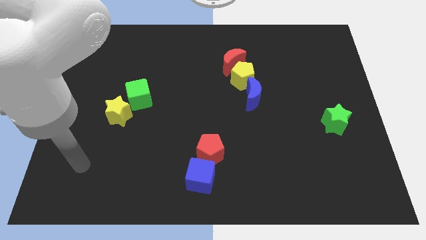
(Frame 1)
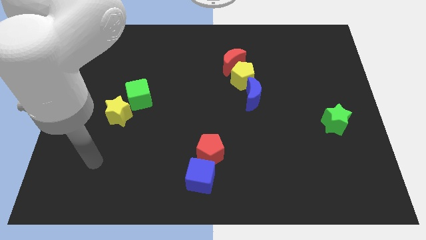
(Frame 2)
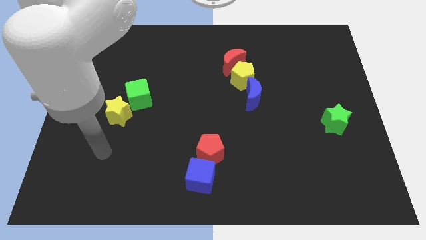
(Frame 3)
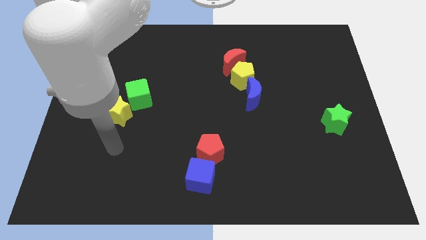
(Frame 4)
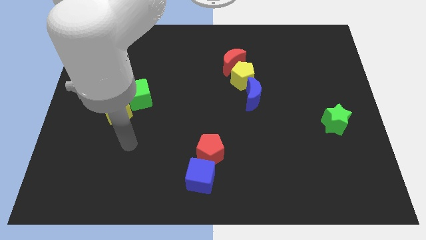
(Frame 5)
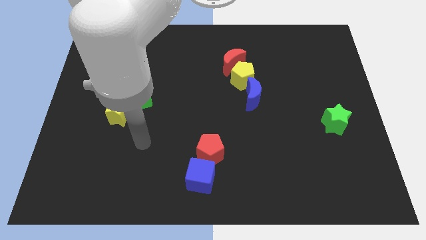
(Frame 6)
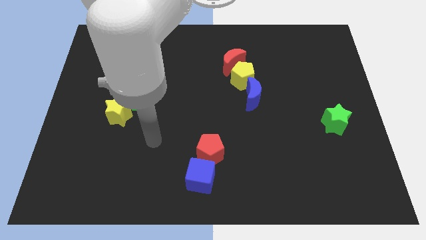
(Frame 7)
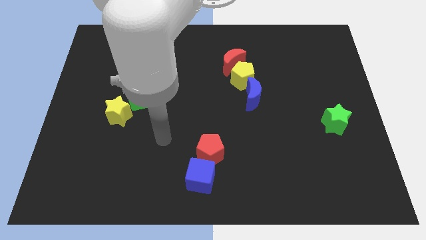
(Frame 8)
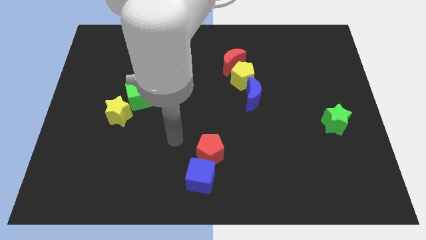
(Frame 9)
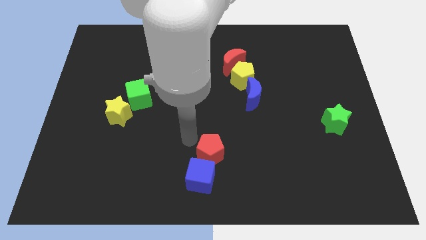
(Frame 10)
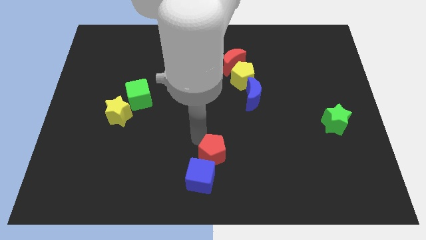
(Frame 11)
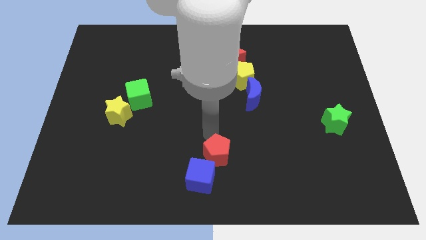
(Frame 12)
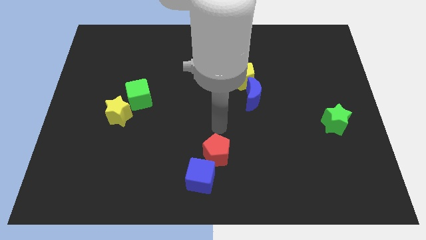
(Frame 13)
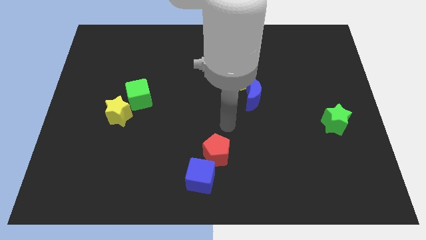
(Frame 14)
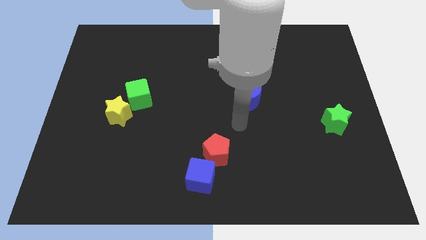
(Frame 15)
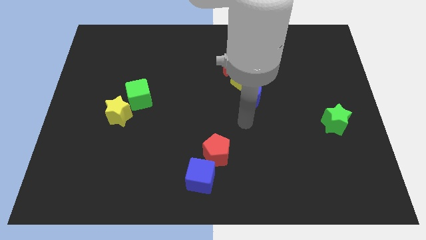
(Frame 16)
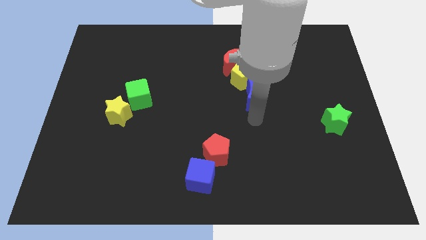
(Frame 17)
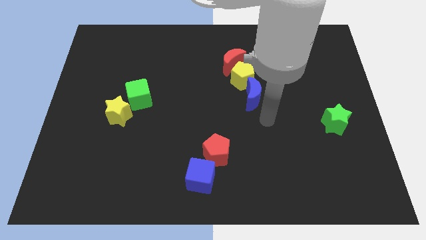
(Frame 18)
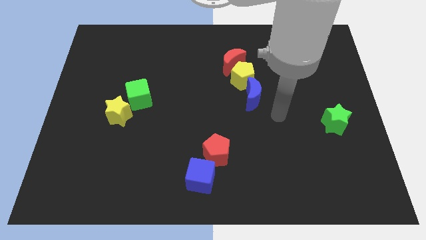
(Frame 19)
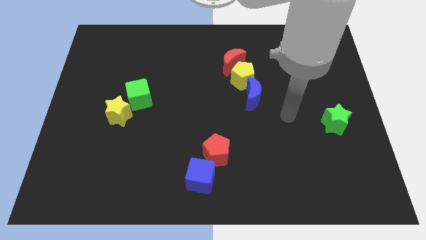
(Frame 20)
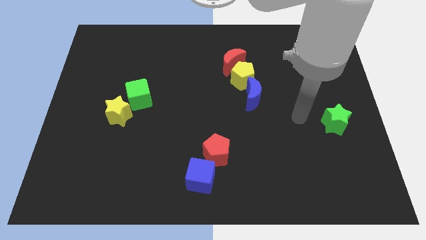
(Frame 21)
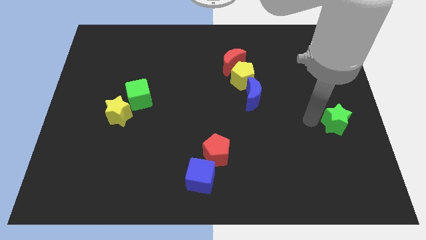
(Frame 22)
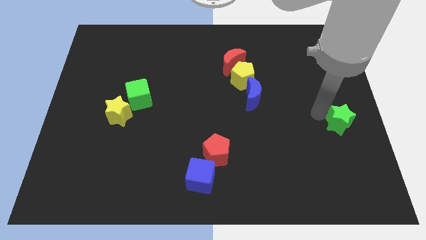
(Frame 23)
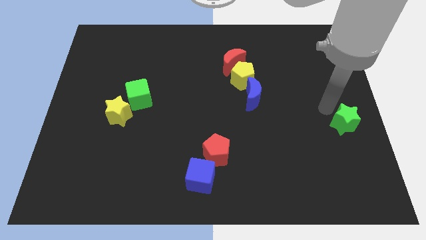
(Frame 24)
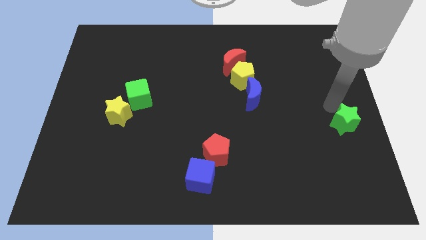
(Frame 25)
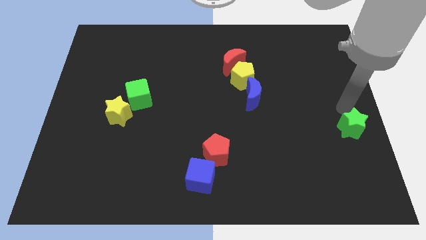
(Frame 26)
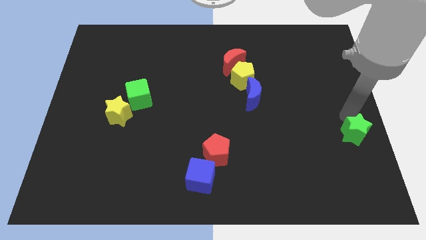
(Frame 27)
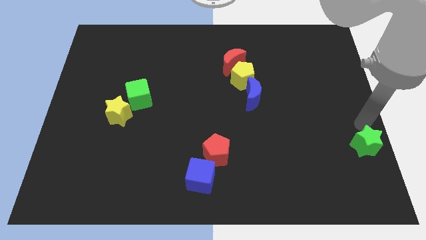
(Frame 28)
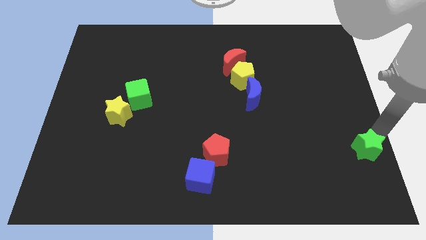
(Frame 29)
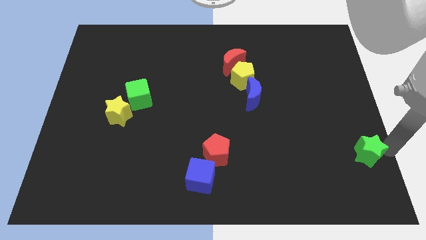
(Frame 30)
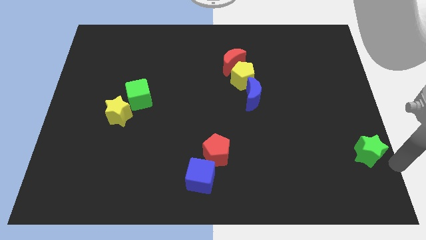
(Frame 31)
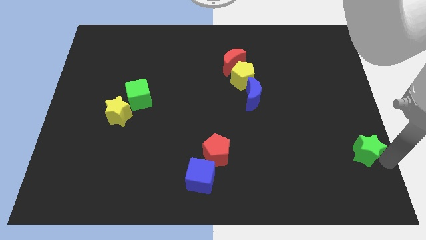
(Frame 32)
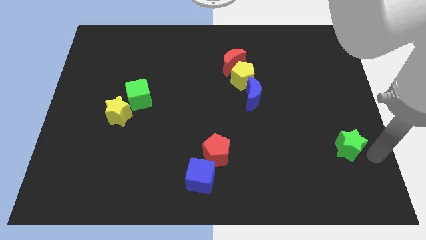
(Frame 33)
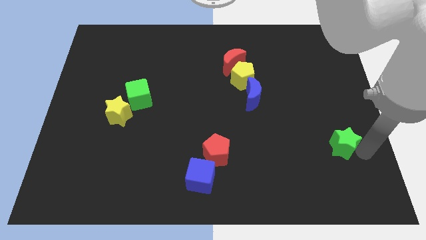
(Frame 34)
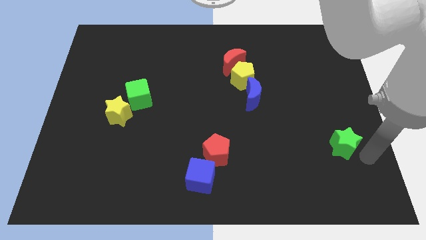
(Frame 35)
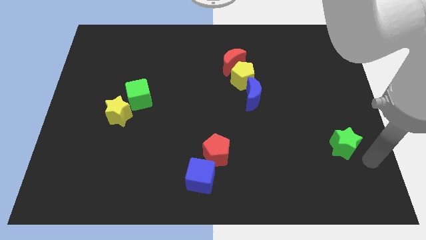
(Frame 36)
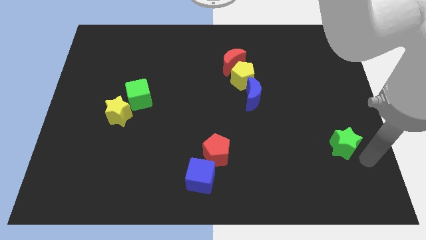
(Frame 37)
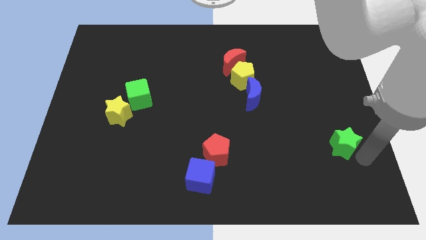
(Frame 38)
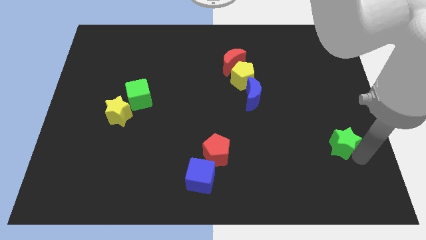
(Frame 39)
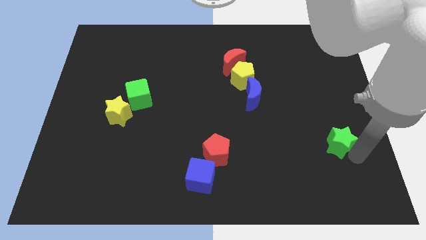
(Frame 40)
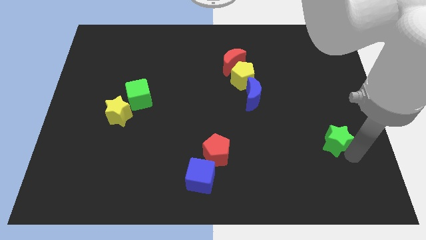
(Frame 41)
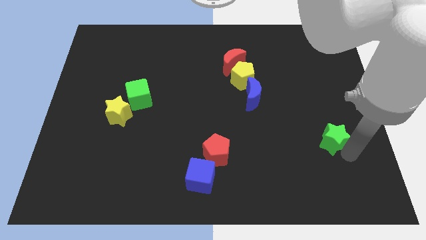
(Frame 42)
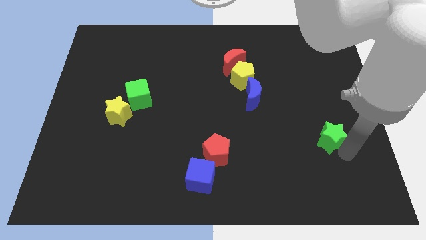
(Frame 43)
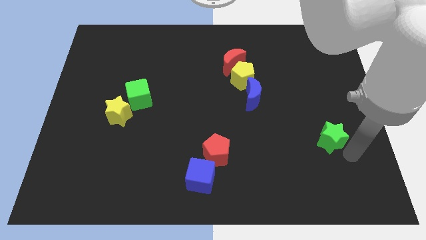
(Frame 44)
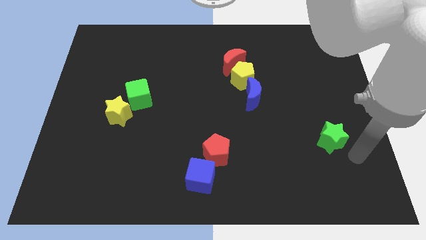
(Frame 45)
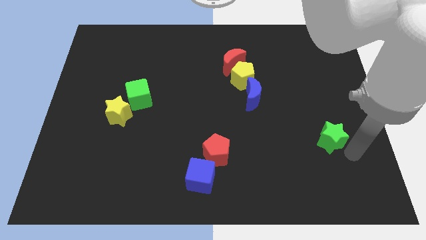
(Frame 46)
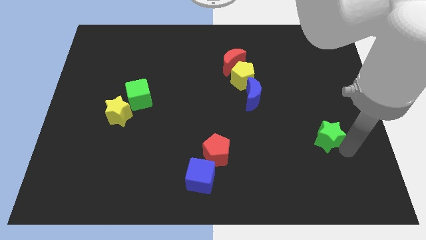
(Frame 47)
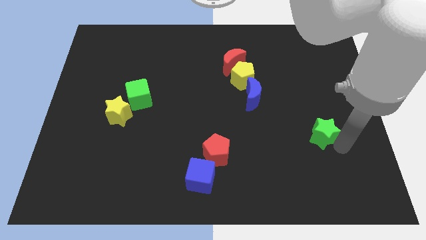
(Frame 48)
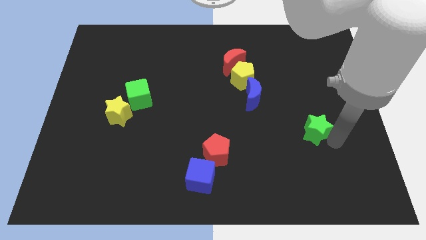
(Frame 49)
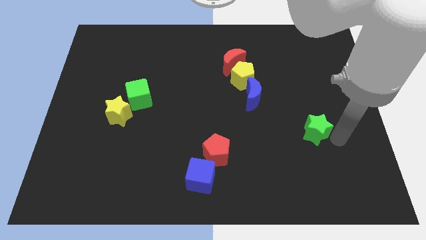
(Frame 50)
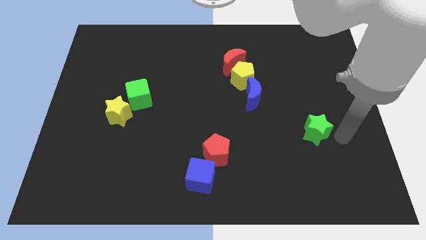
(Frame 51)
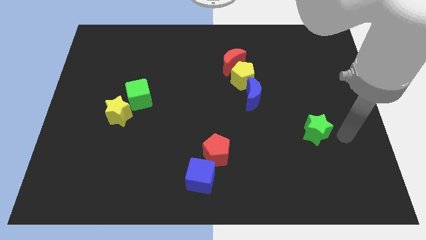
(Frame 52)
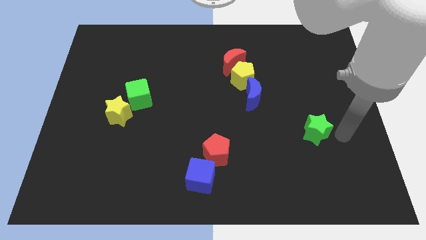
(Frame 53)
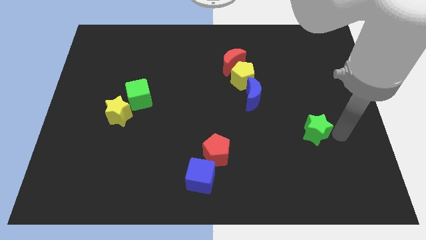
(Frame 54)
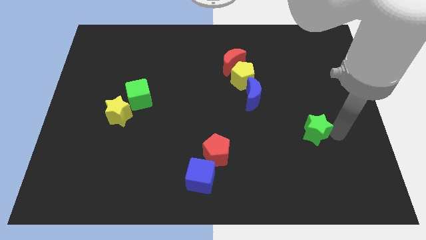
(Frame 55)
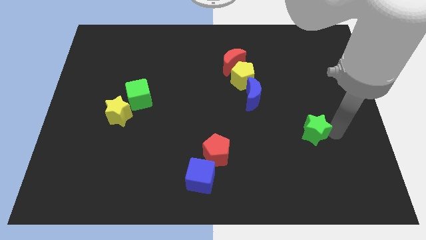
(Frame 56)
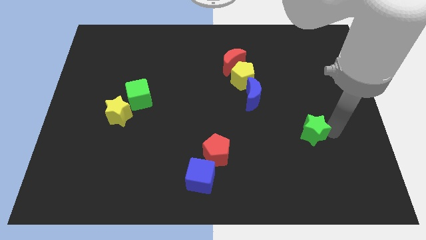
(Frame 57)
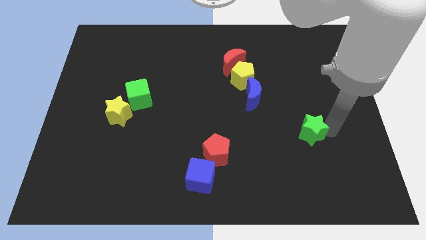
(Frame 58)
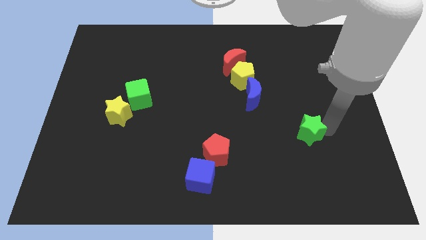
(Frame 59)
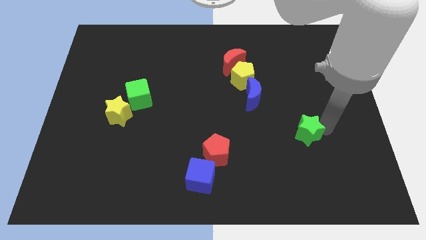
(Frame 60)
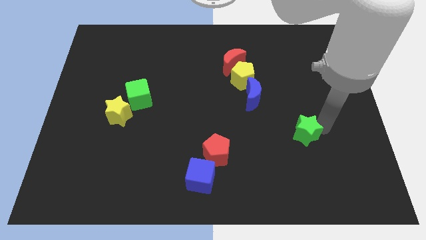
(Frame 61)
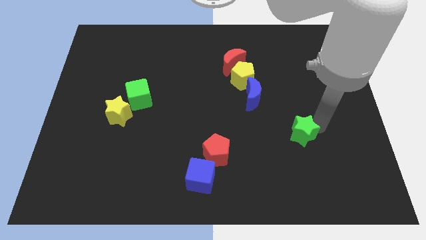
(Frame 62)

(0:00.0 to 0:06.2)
push the green star to the left somewhat

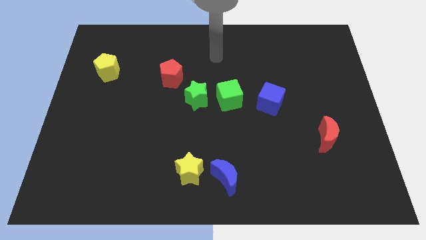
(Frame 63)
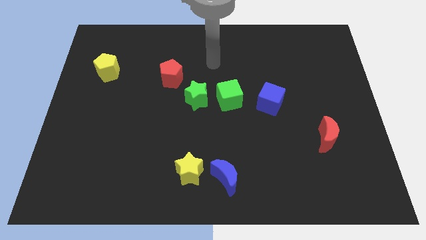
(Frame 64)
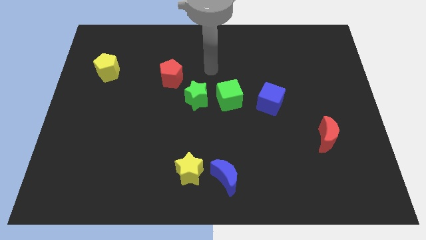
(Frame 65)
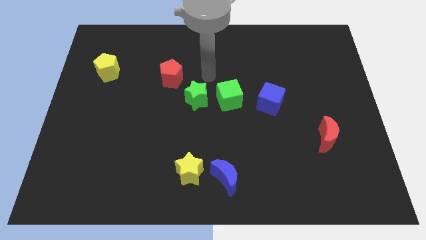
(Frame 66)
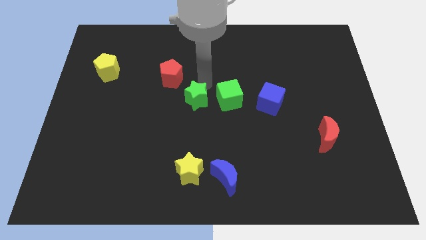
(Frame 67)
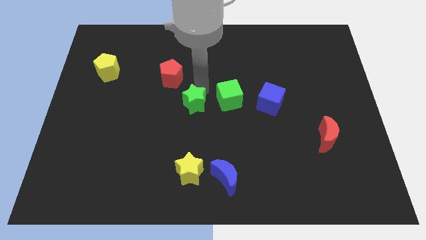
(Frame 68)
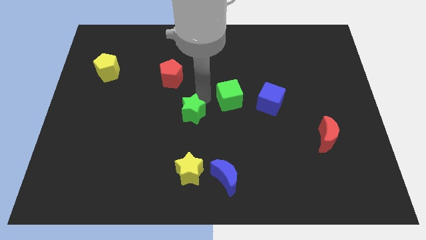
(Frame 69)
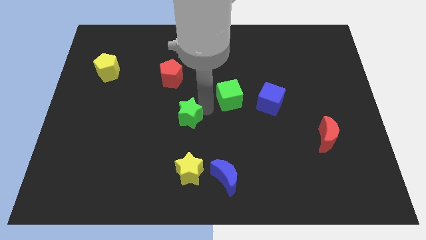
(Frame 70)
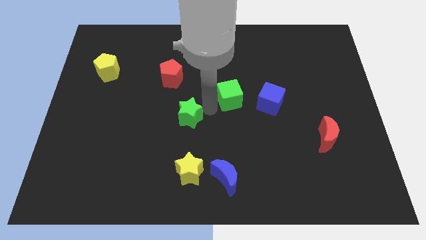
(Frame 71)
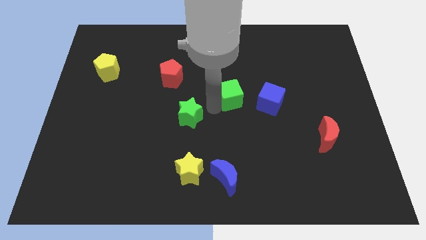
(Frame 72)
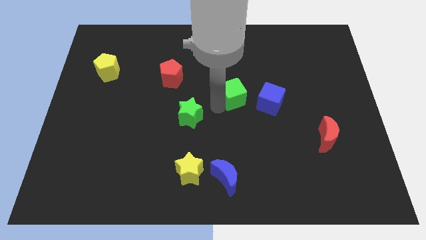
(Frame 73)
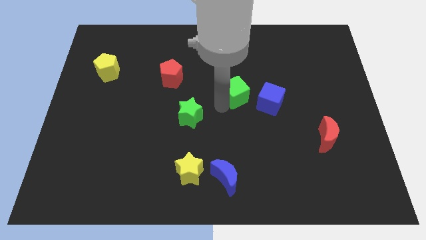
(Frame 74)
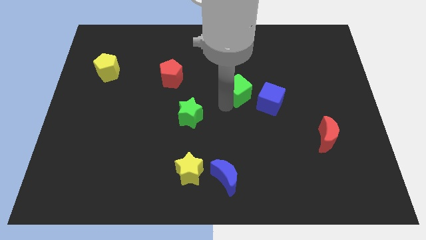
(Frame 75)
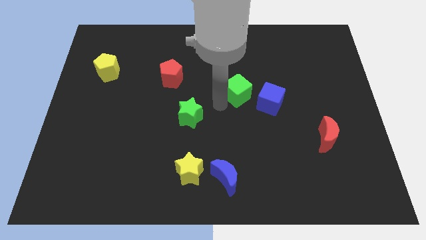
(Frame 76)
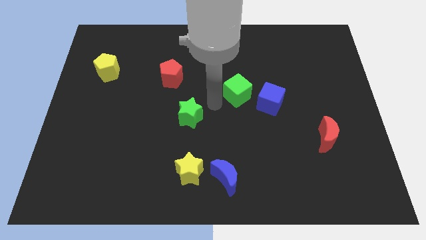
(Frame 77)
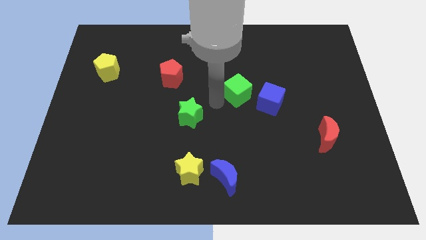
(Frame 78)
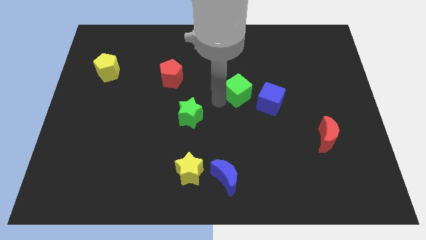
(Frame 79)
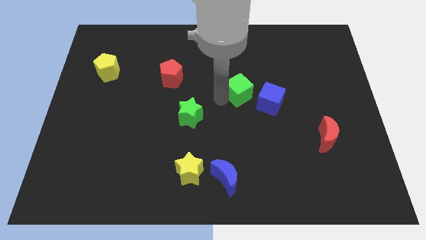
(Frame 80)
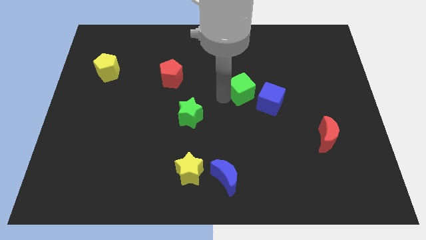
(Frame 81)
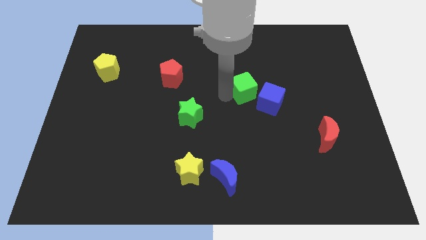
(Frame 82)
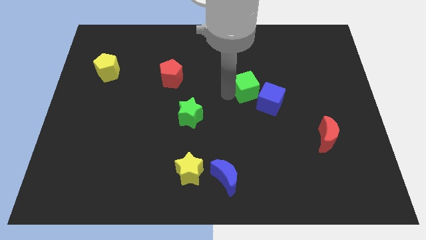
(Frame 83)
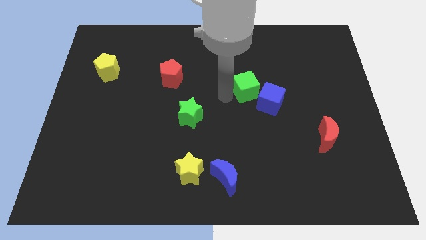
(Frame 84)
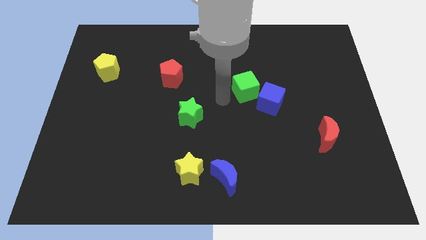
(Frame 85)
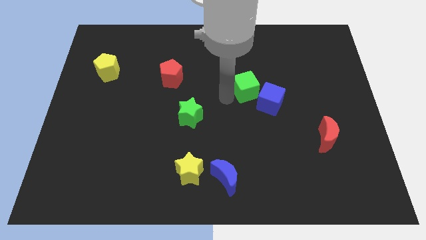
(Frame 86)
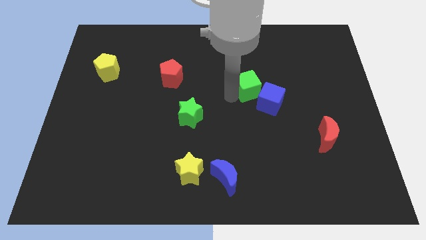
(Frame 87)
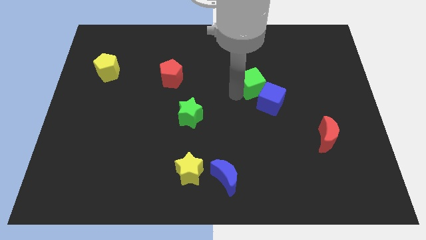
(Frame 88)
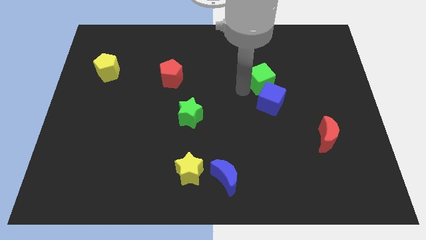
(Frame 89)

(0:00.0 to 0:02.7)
slide the green cube right a little bit
